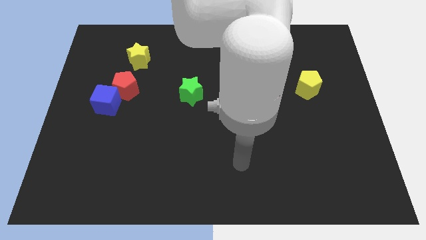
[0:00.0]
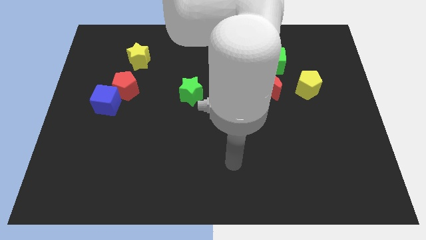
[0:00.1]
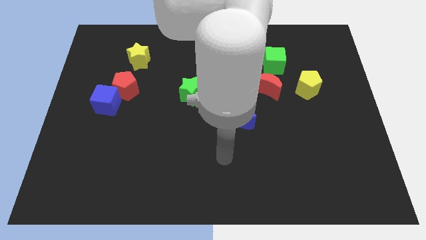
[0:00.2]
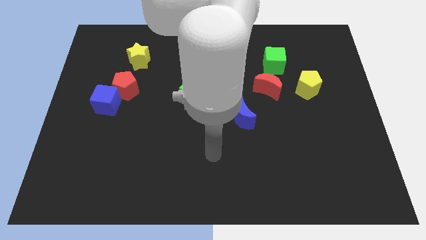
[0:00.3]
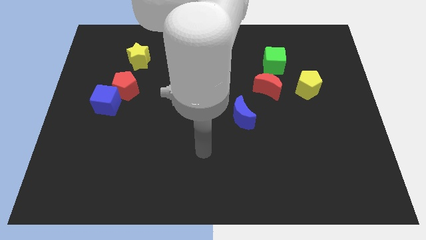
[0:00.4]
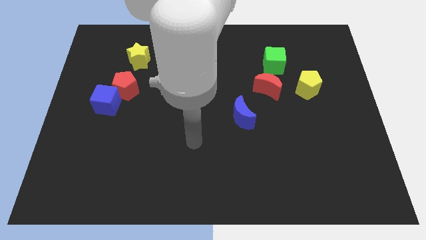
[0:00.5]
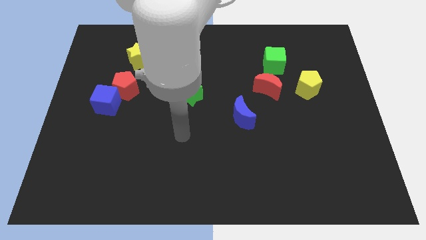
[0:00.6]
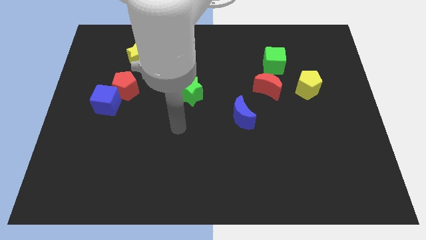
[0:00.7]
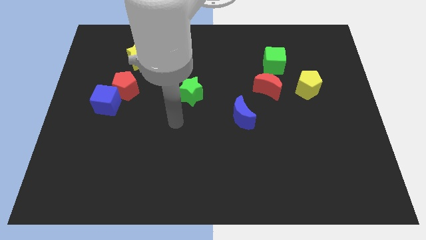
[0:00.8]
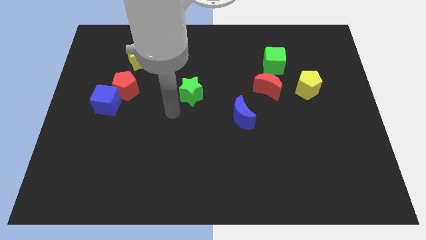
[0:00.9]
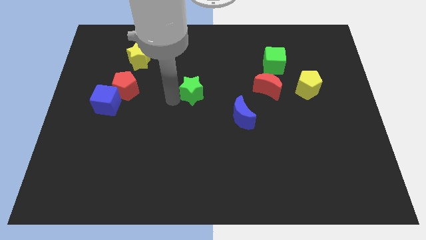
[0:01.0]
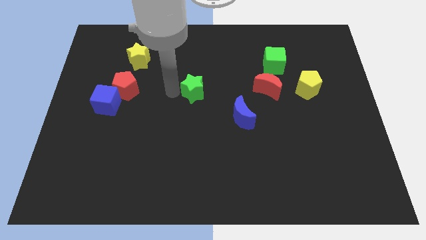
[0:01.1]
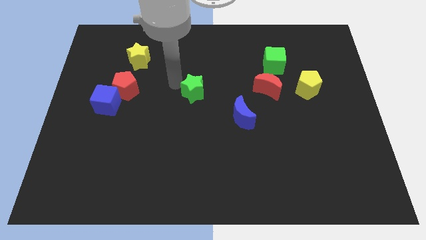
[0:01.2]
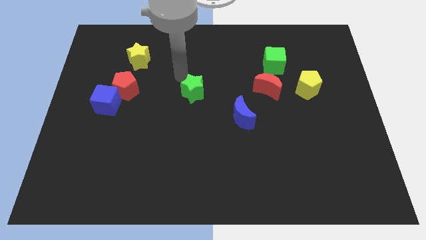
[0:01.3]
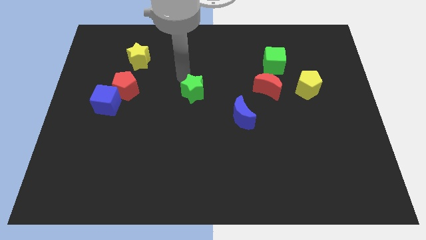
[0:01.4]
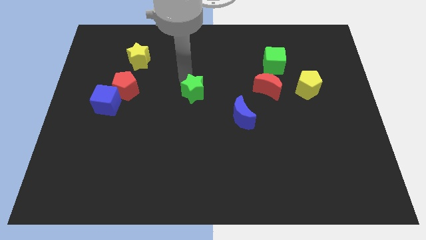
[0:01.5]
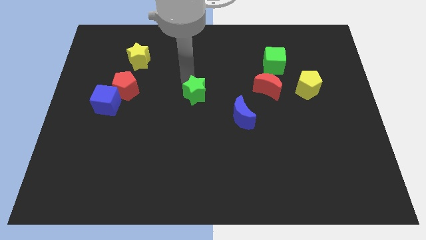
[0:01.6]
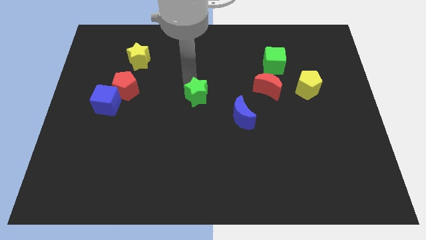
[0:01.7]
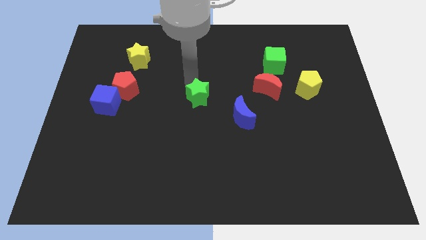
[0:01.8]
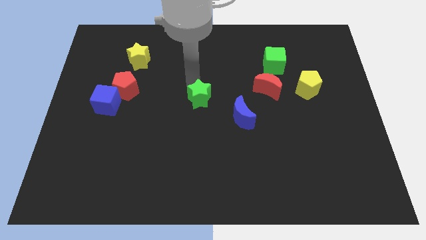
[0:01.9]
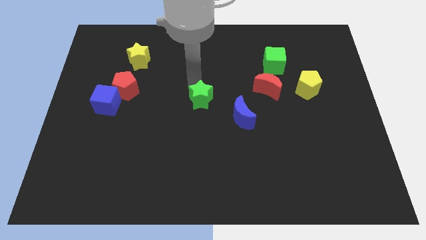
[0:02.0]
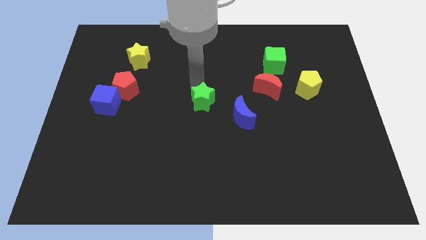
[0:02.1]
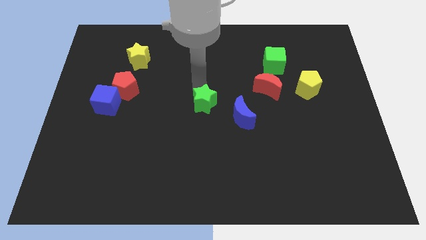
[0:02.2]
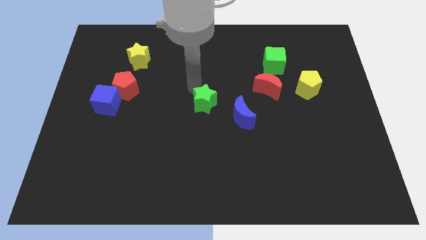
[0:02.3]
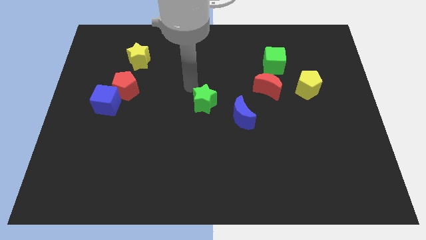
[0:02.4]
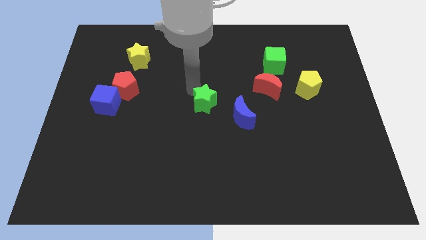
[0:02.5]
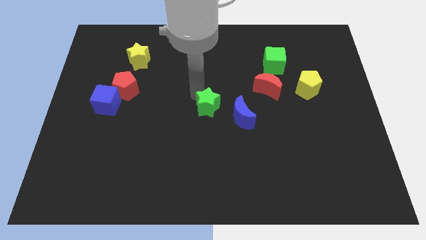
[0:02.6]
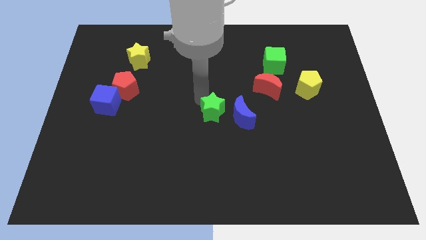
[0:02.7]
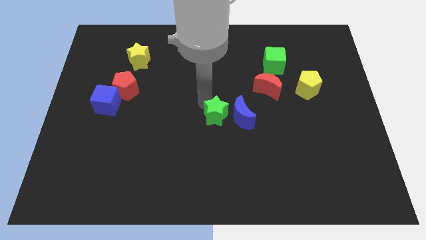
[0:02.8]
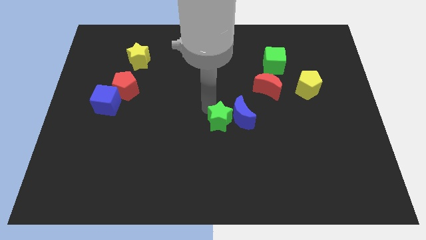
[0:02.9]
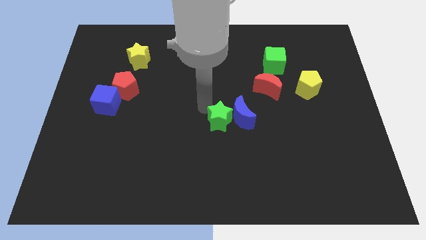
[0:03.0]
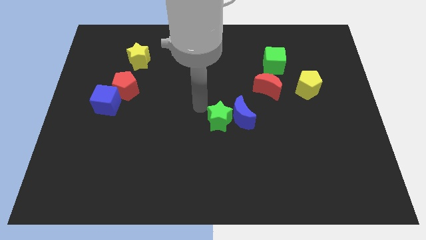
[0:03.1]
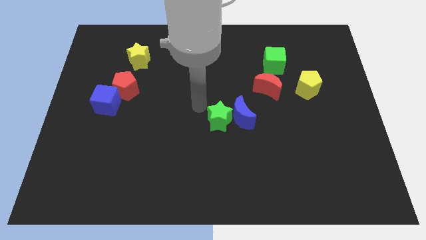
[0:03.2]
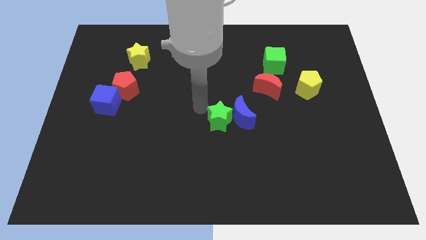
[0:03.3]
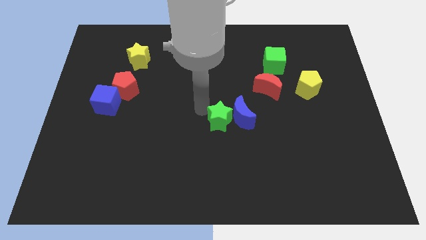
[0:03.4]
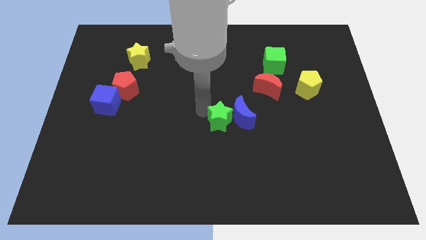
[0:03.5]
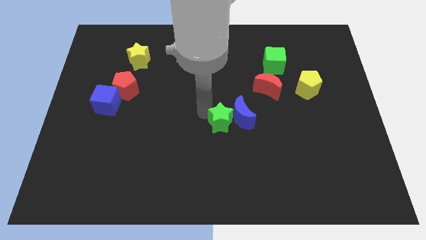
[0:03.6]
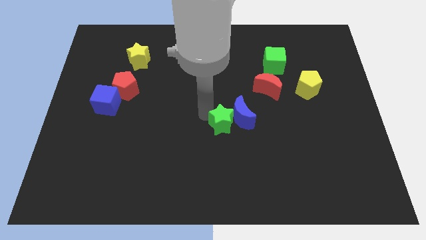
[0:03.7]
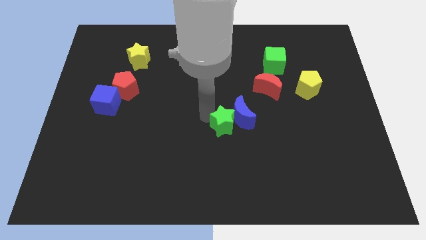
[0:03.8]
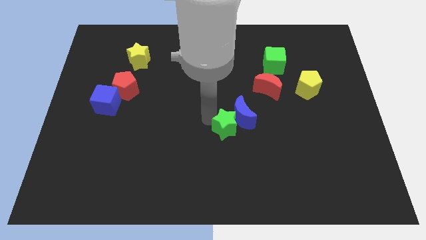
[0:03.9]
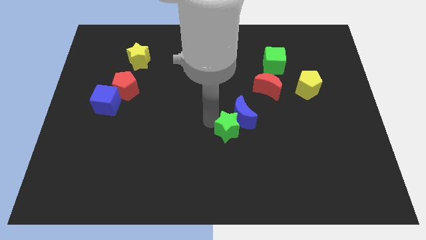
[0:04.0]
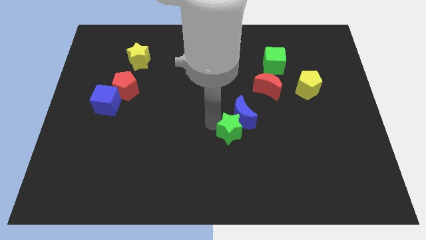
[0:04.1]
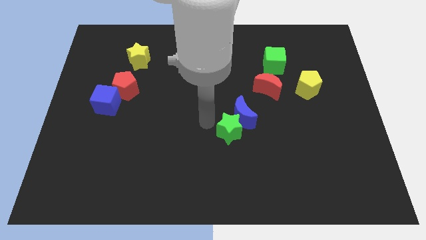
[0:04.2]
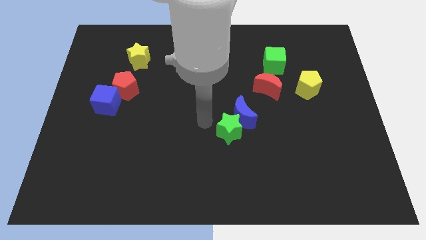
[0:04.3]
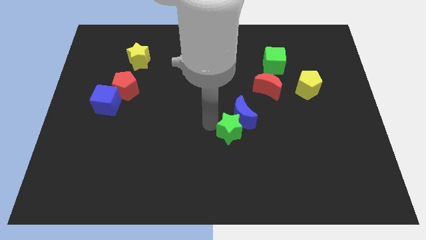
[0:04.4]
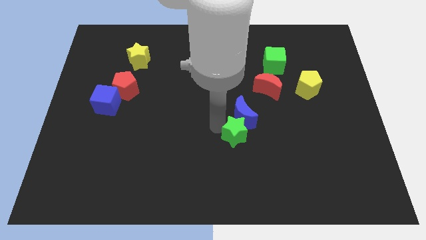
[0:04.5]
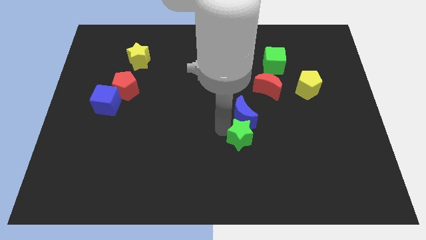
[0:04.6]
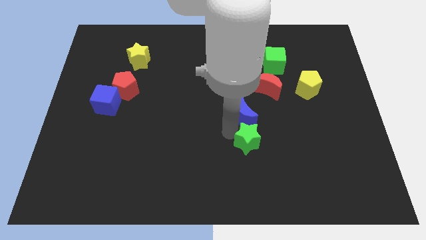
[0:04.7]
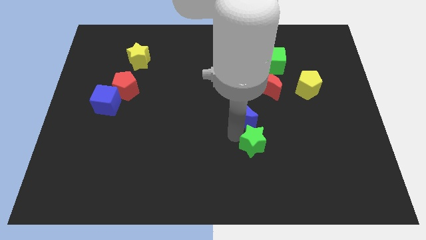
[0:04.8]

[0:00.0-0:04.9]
move the green star down and then to the right

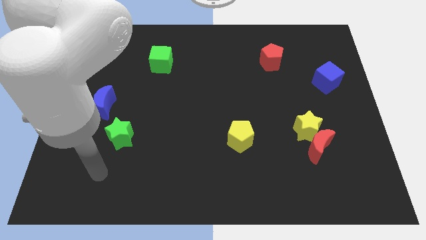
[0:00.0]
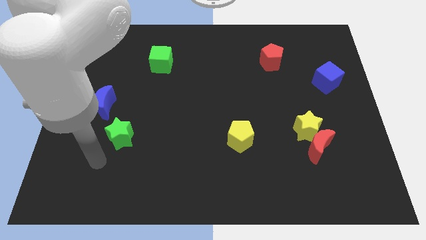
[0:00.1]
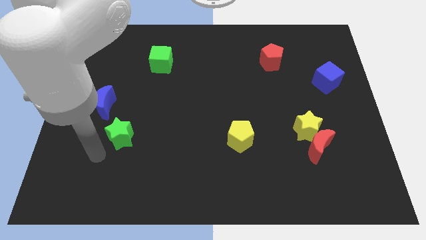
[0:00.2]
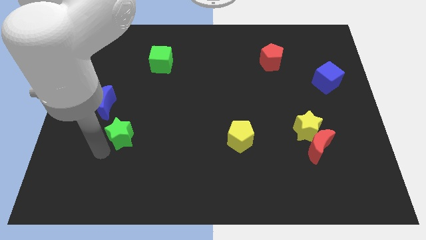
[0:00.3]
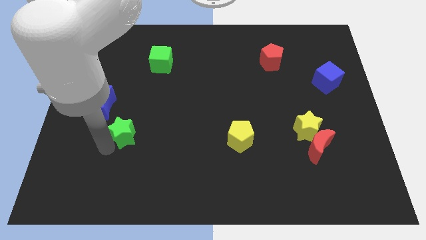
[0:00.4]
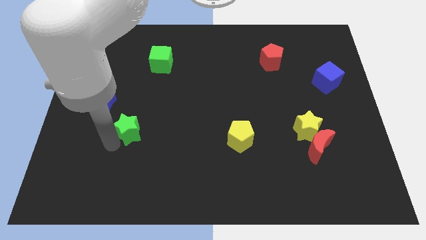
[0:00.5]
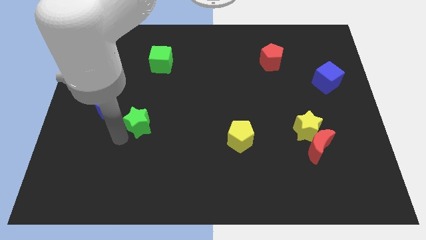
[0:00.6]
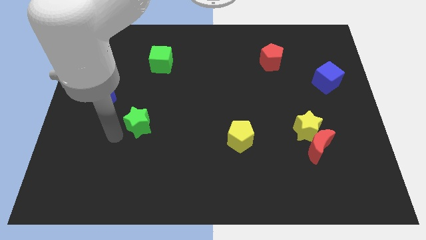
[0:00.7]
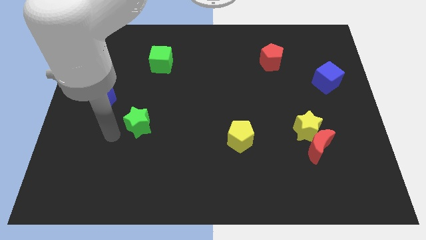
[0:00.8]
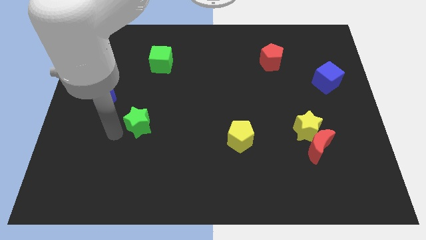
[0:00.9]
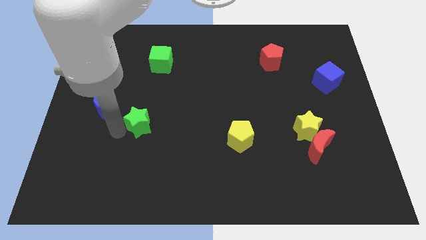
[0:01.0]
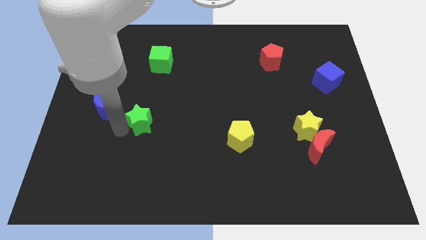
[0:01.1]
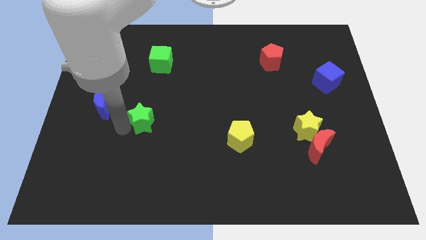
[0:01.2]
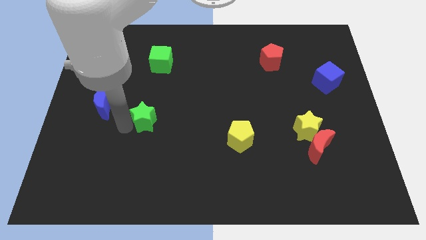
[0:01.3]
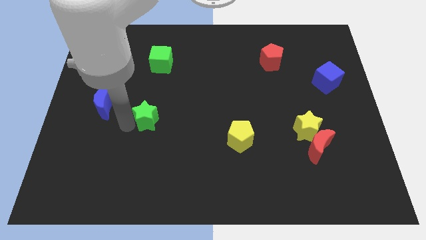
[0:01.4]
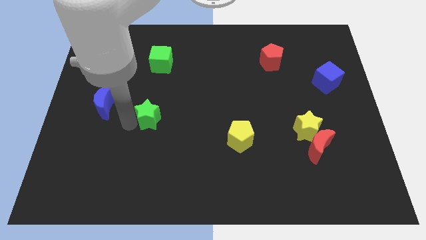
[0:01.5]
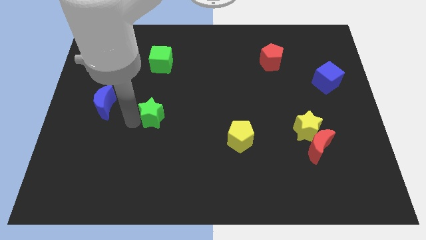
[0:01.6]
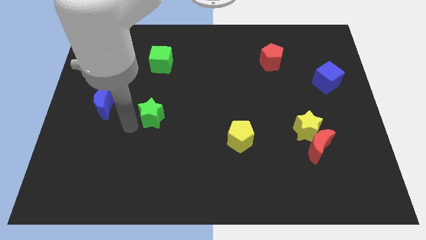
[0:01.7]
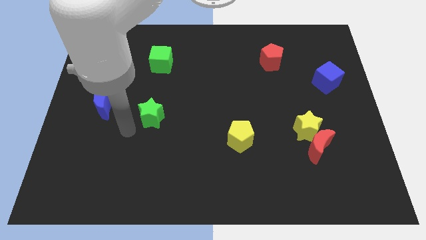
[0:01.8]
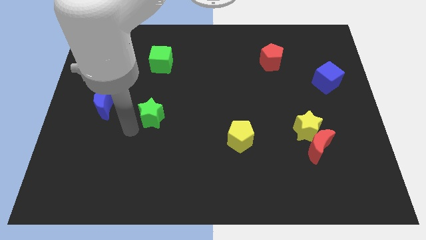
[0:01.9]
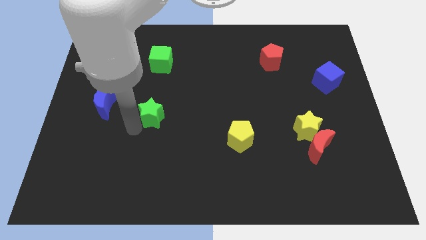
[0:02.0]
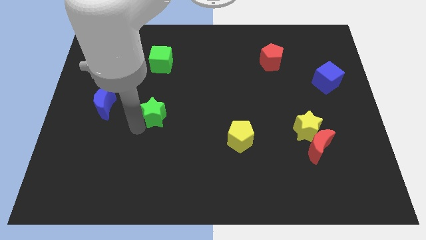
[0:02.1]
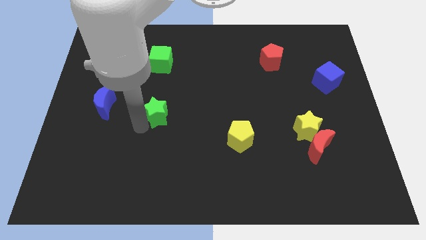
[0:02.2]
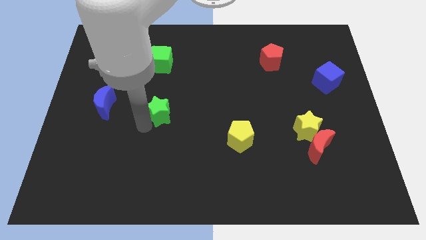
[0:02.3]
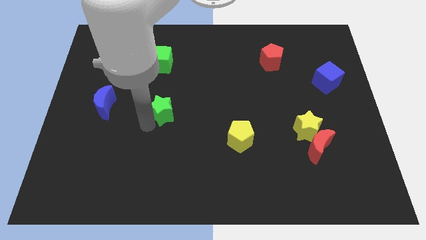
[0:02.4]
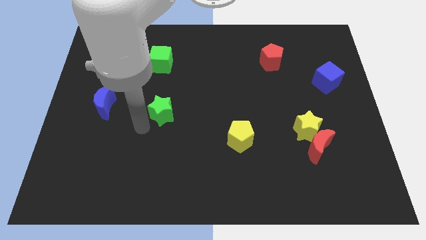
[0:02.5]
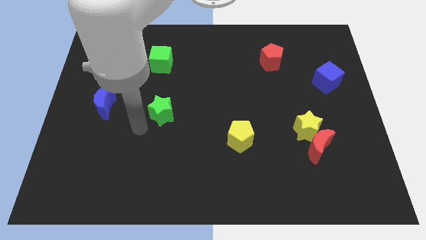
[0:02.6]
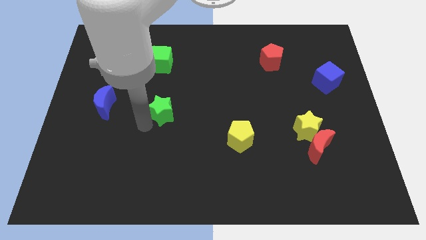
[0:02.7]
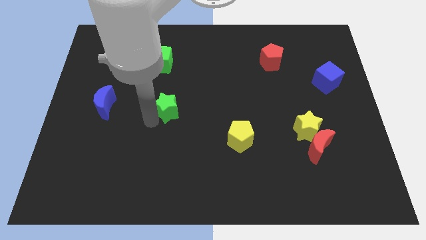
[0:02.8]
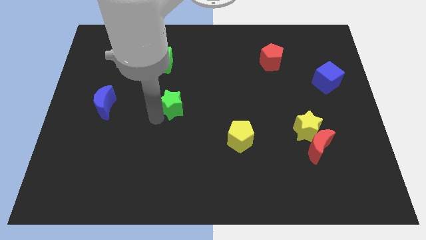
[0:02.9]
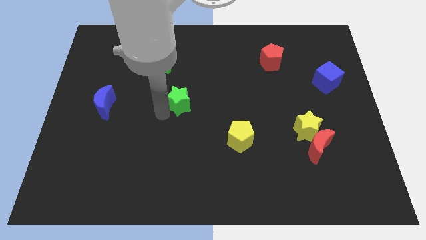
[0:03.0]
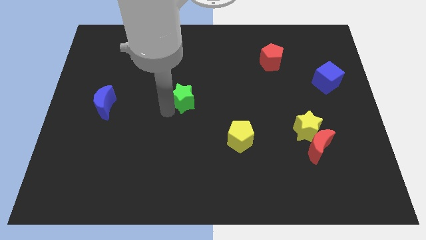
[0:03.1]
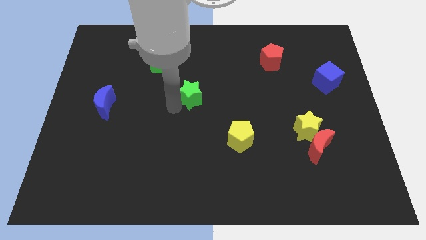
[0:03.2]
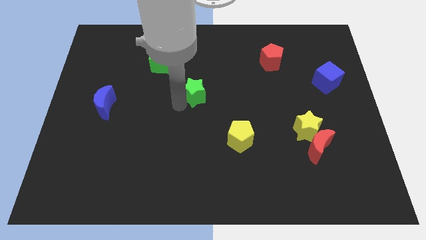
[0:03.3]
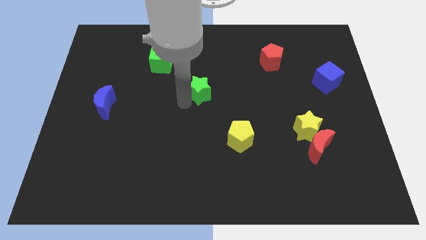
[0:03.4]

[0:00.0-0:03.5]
move the green star up and to the right diagonally
